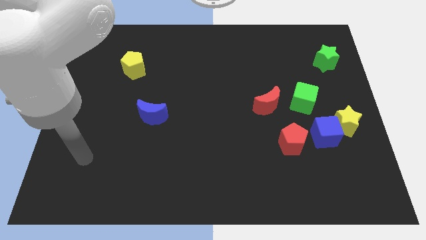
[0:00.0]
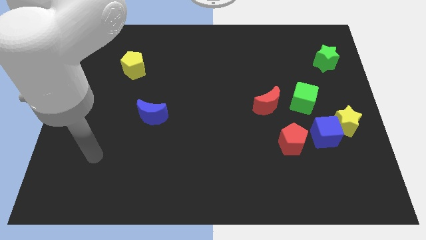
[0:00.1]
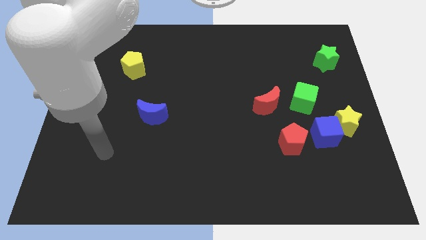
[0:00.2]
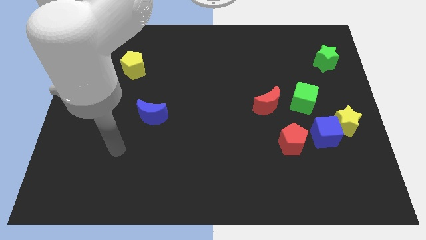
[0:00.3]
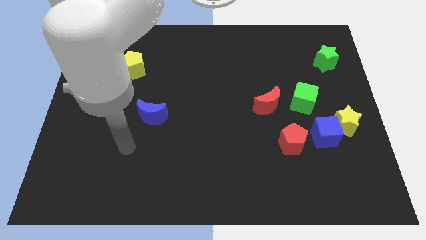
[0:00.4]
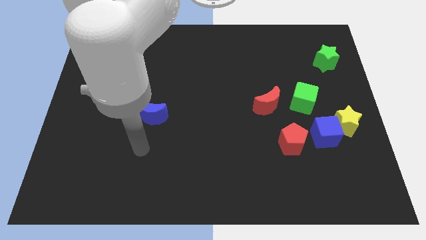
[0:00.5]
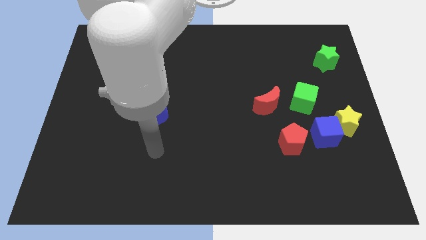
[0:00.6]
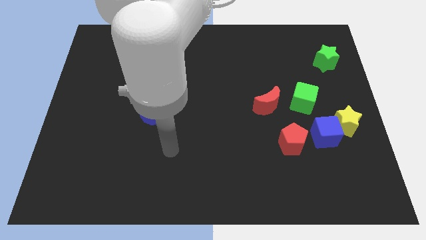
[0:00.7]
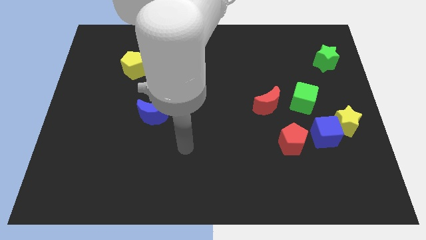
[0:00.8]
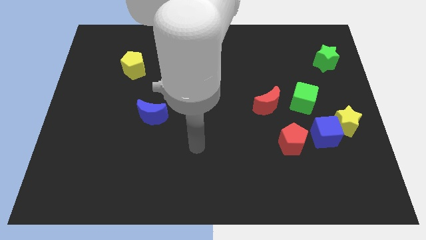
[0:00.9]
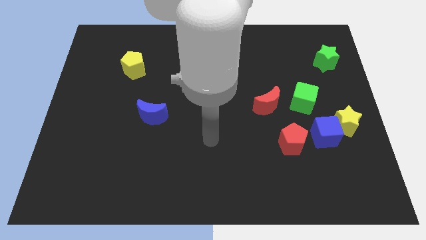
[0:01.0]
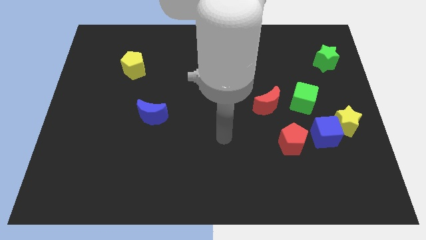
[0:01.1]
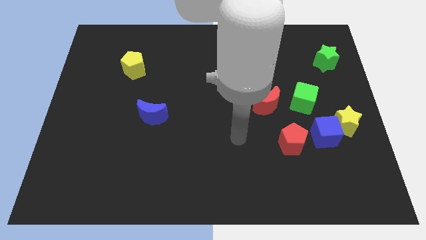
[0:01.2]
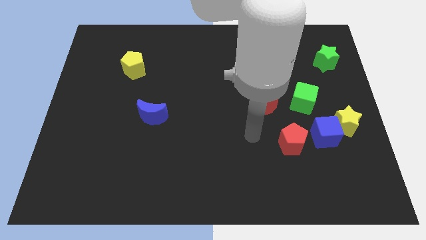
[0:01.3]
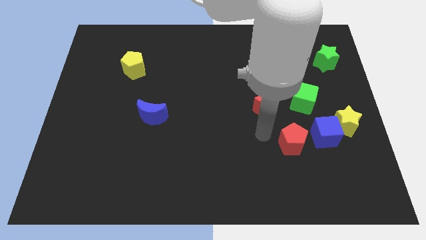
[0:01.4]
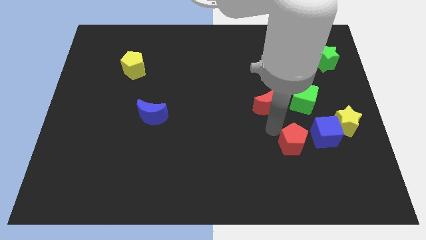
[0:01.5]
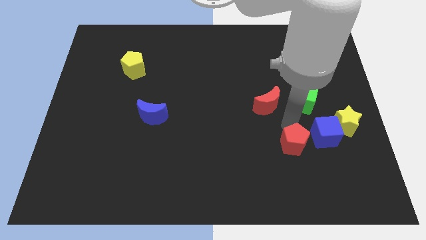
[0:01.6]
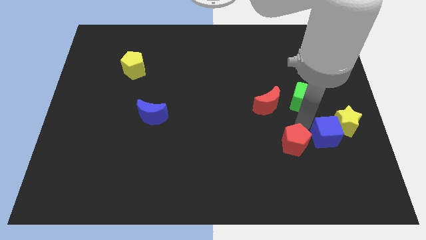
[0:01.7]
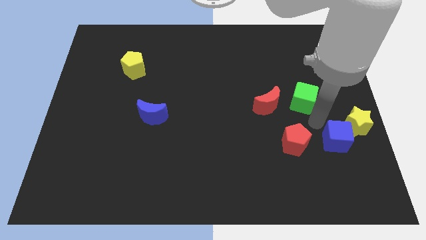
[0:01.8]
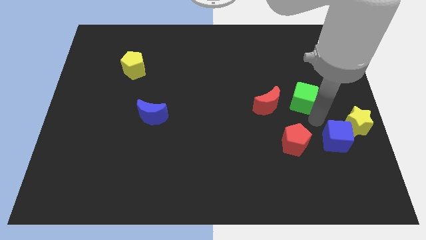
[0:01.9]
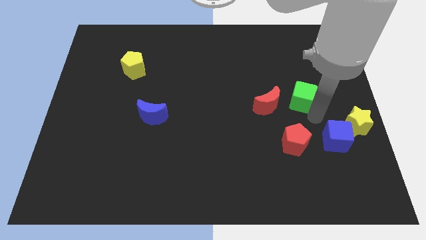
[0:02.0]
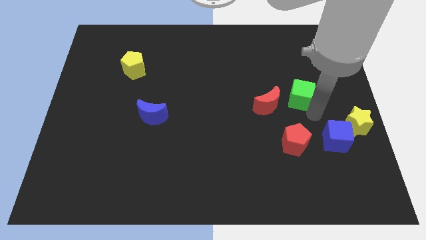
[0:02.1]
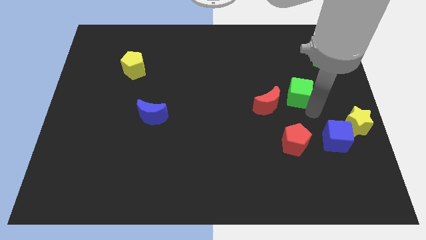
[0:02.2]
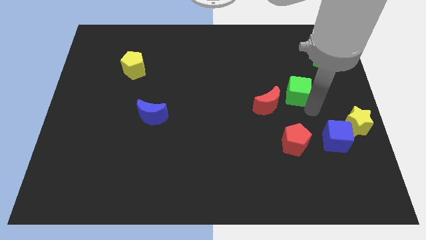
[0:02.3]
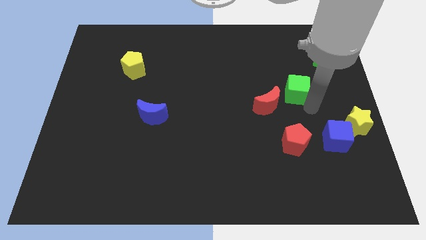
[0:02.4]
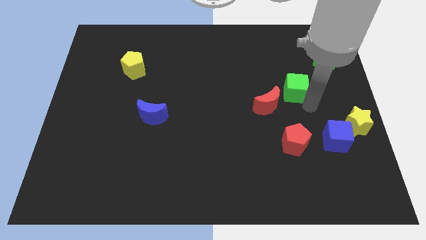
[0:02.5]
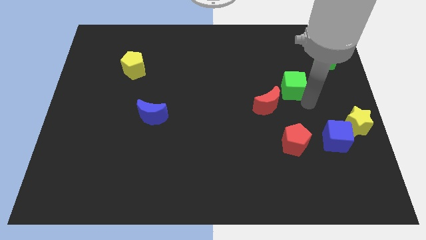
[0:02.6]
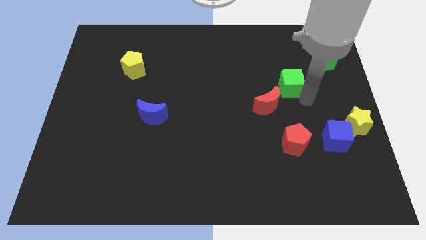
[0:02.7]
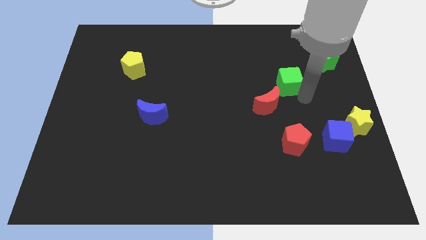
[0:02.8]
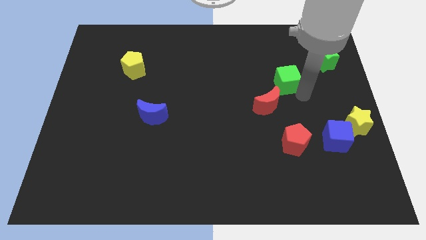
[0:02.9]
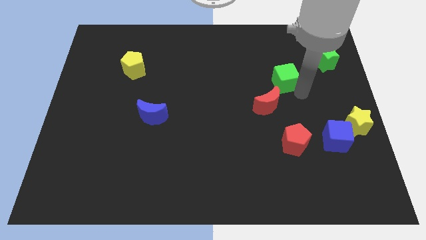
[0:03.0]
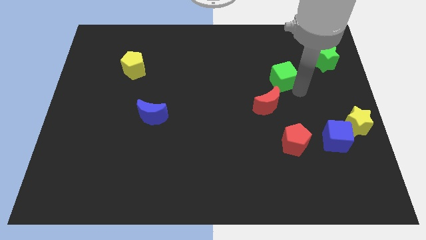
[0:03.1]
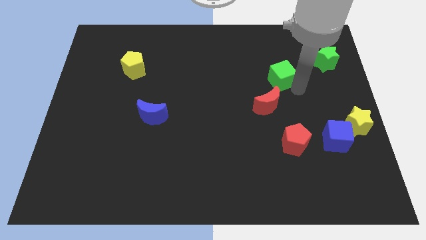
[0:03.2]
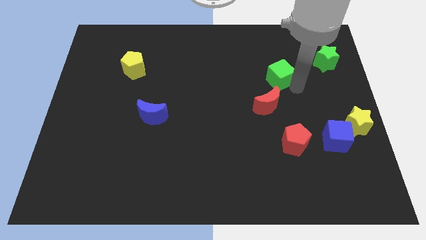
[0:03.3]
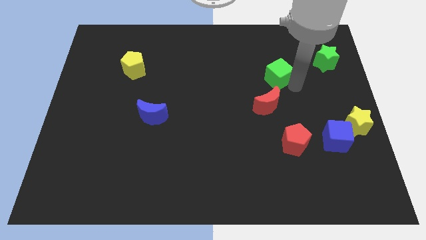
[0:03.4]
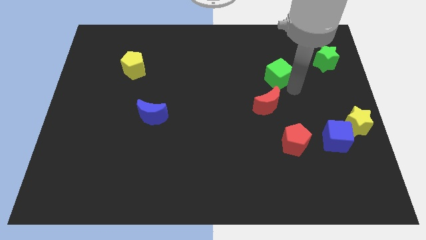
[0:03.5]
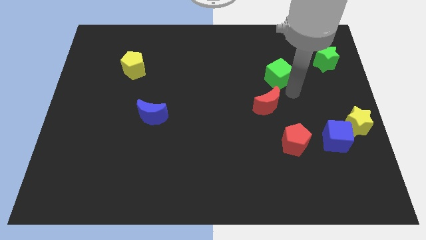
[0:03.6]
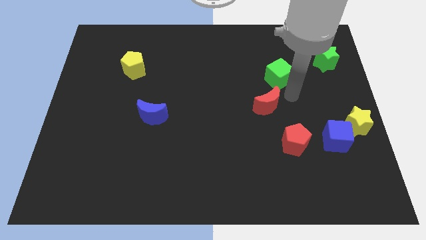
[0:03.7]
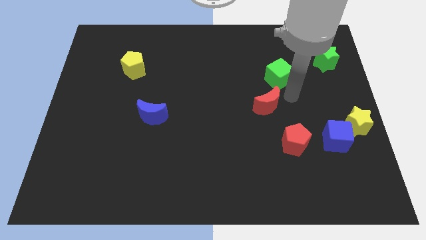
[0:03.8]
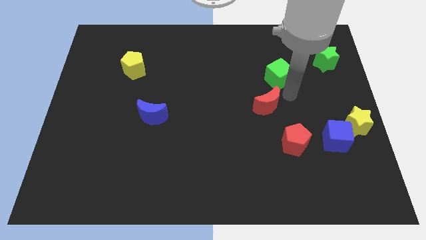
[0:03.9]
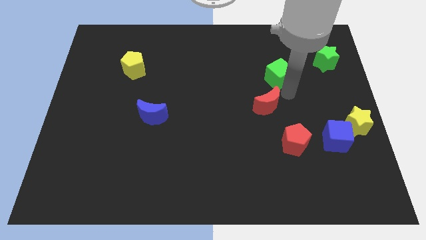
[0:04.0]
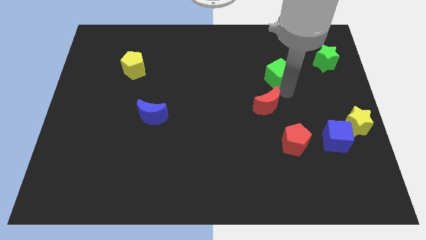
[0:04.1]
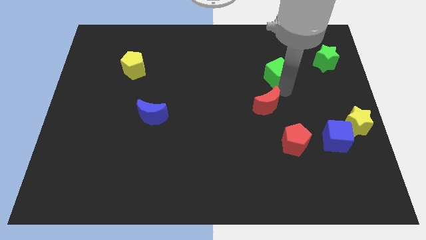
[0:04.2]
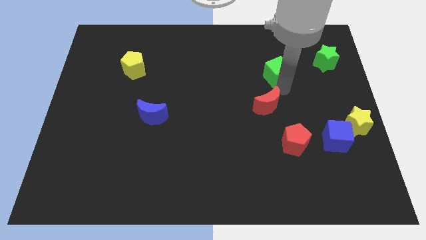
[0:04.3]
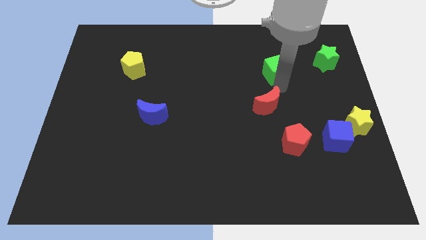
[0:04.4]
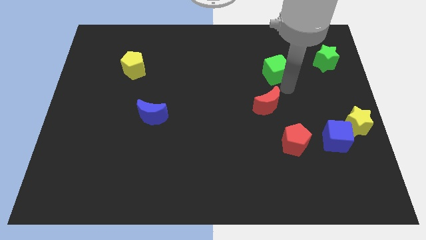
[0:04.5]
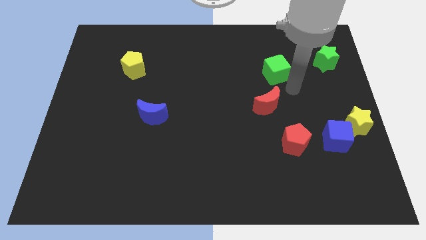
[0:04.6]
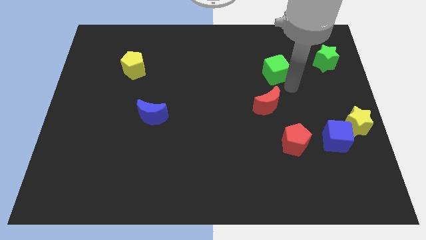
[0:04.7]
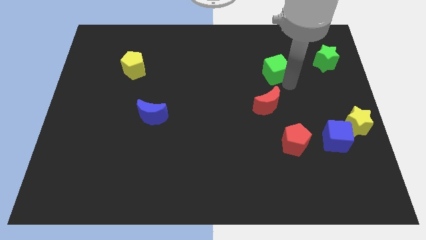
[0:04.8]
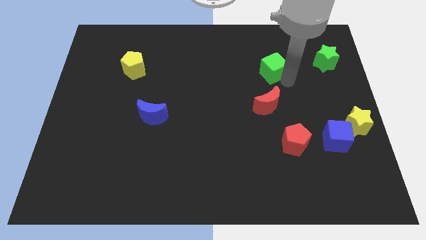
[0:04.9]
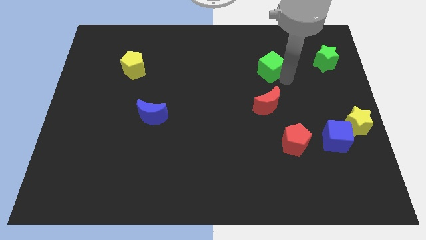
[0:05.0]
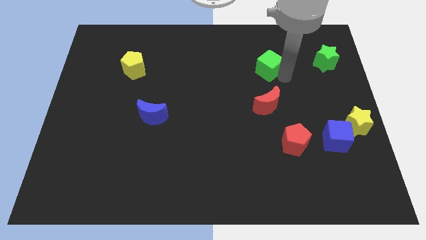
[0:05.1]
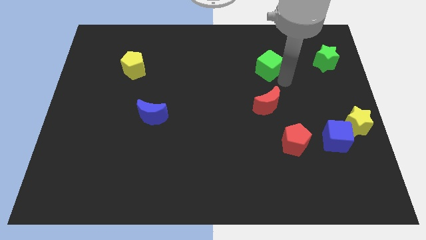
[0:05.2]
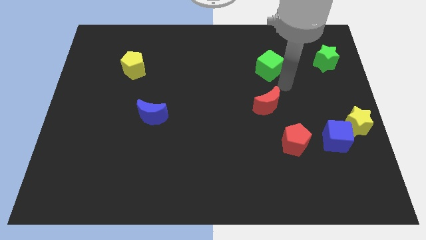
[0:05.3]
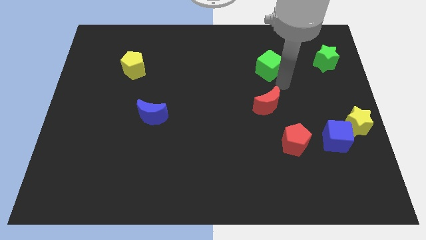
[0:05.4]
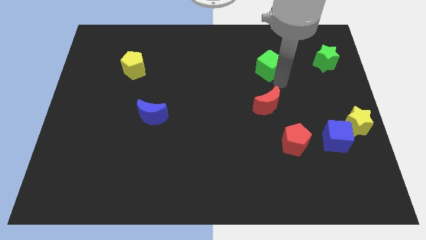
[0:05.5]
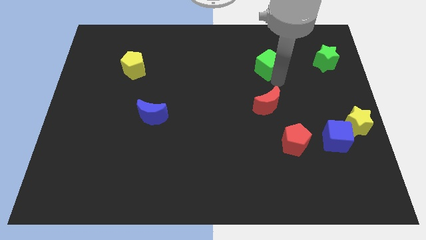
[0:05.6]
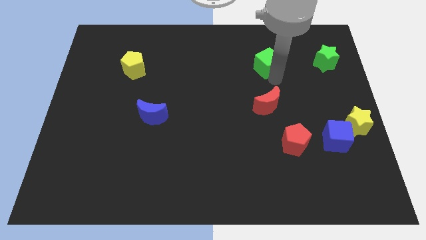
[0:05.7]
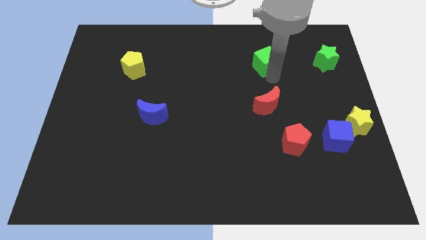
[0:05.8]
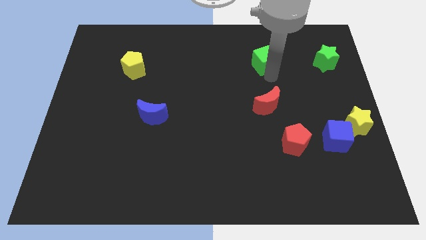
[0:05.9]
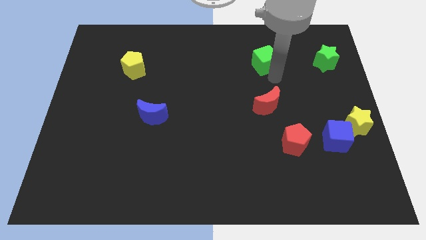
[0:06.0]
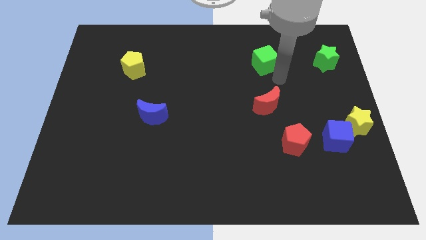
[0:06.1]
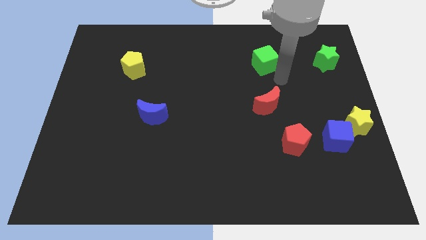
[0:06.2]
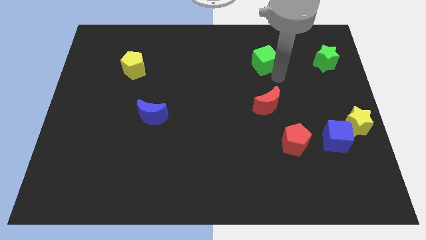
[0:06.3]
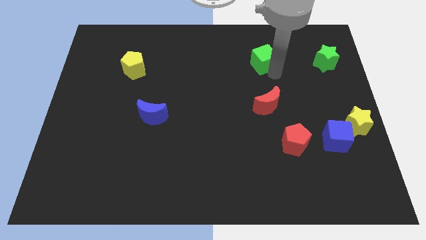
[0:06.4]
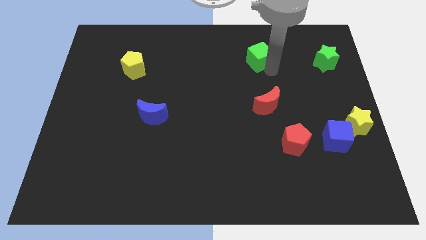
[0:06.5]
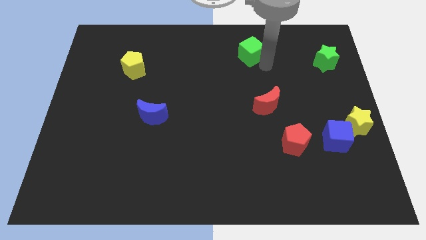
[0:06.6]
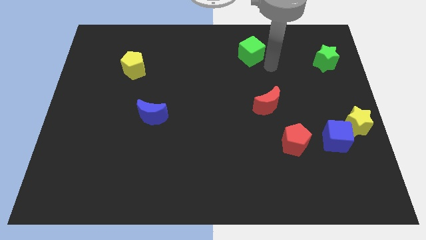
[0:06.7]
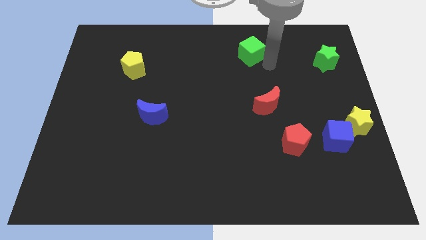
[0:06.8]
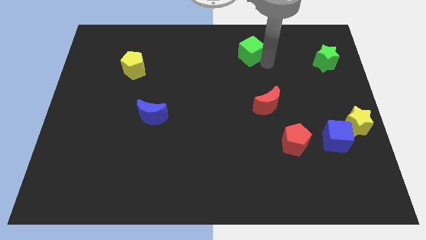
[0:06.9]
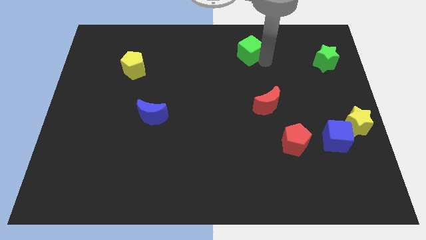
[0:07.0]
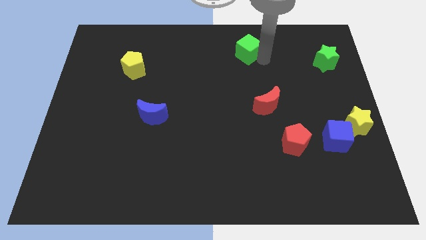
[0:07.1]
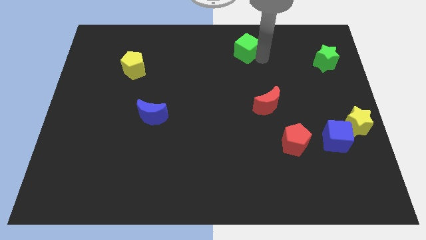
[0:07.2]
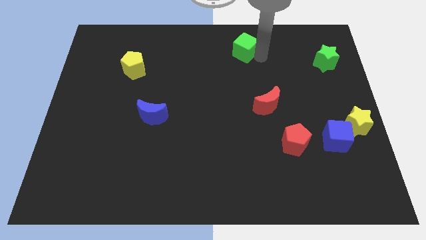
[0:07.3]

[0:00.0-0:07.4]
move the green cube to the towards your base
